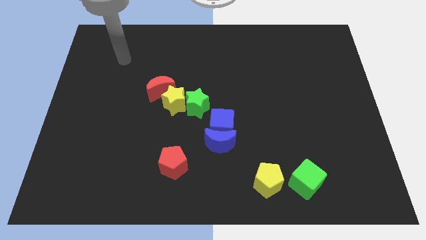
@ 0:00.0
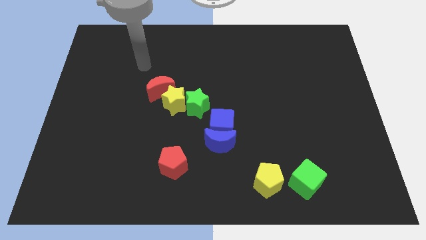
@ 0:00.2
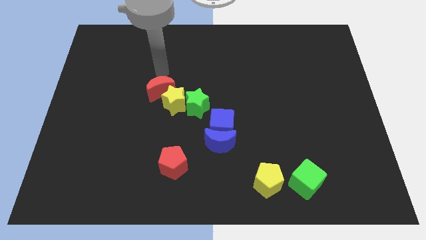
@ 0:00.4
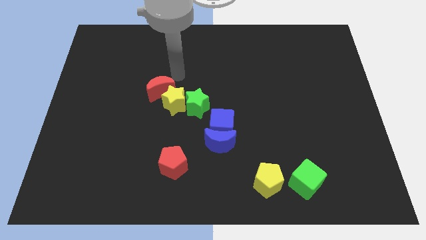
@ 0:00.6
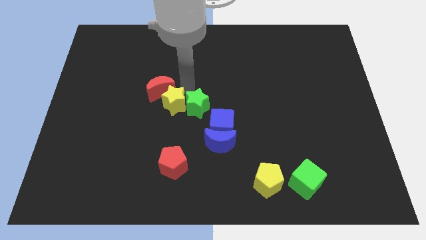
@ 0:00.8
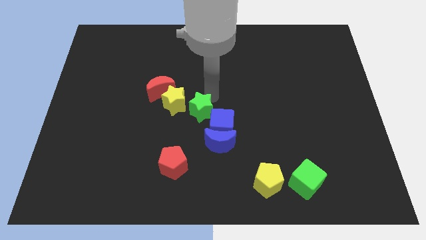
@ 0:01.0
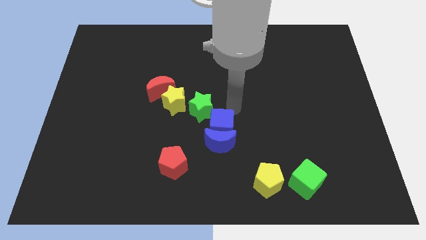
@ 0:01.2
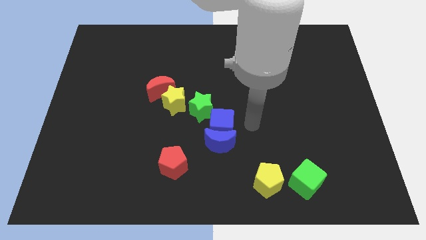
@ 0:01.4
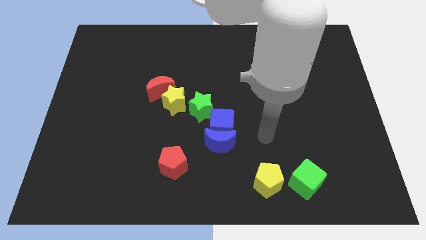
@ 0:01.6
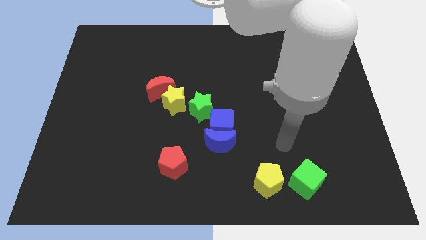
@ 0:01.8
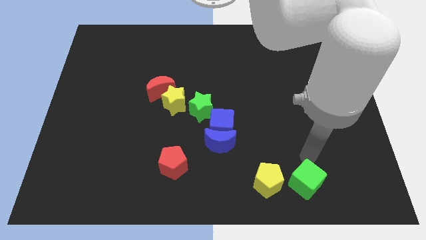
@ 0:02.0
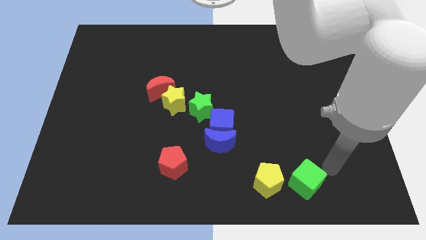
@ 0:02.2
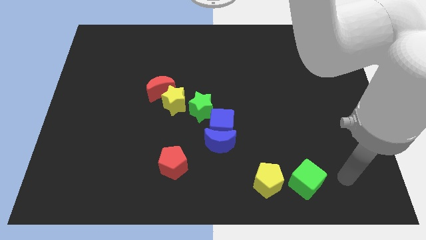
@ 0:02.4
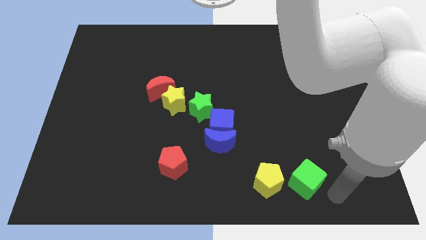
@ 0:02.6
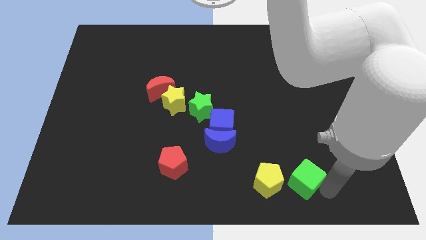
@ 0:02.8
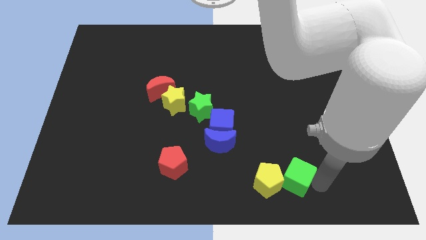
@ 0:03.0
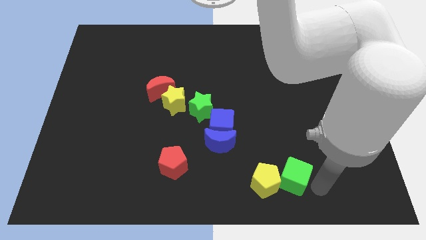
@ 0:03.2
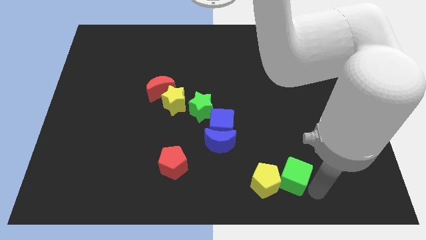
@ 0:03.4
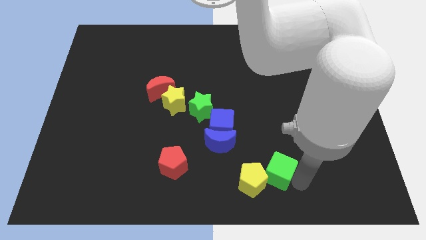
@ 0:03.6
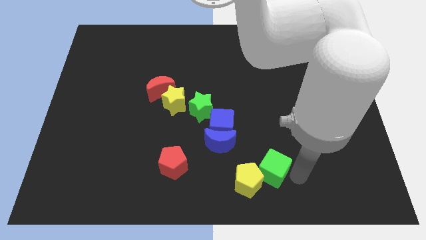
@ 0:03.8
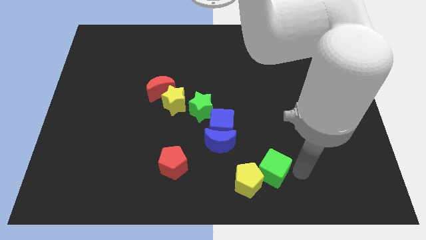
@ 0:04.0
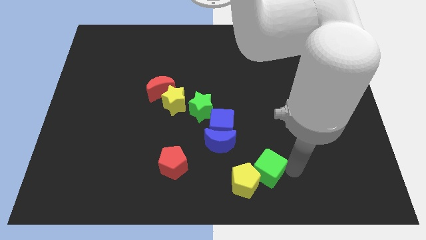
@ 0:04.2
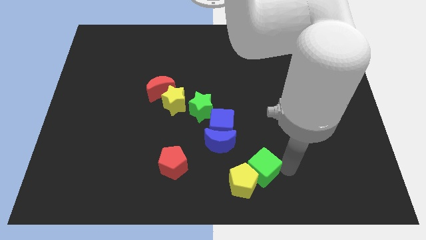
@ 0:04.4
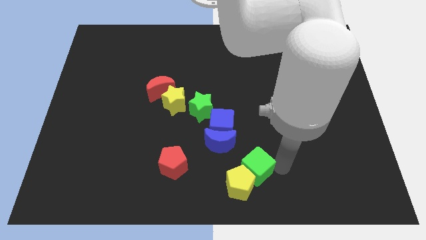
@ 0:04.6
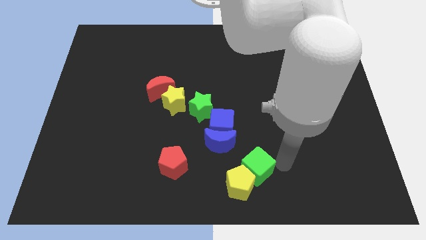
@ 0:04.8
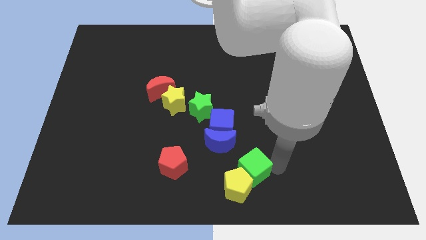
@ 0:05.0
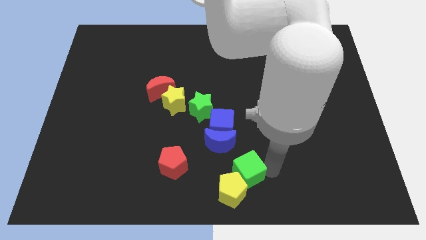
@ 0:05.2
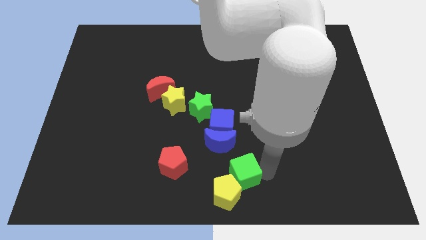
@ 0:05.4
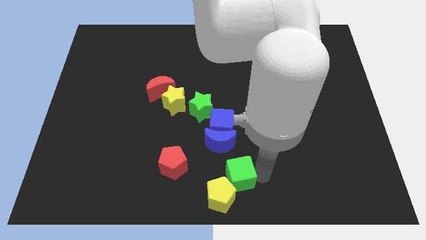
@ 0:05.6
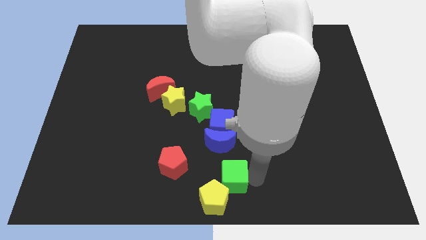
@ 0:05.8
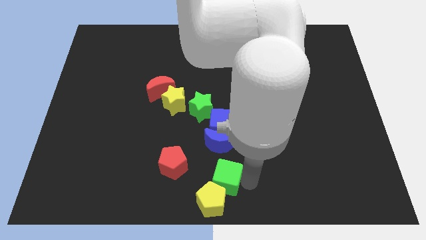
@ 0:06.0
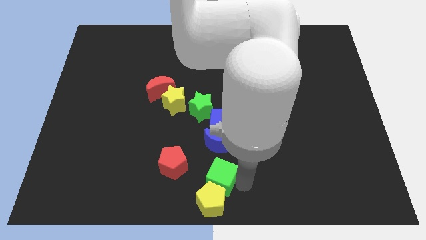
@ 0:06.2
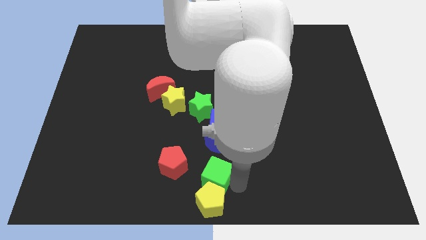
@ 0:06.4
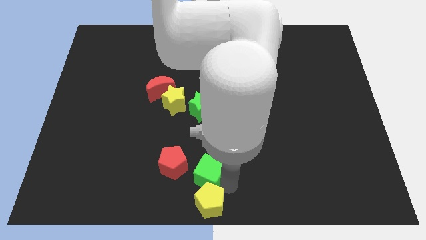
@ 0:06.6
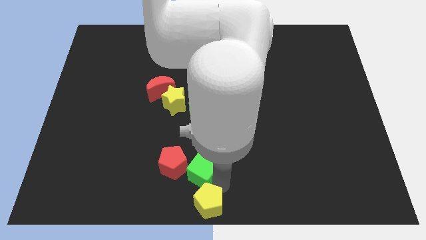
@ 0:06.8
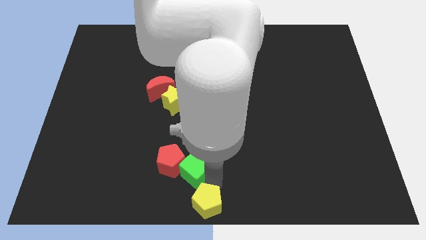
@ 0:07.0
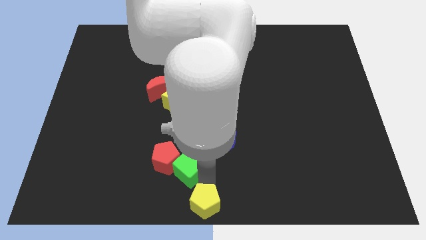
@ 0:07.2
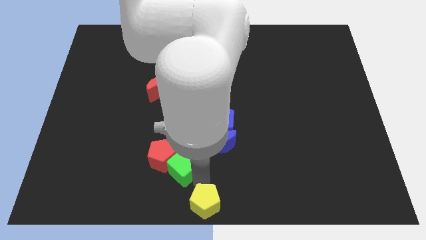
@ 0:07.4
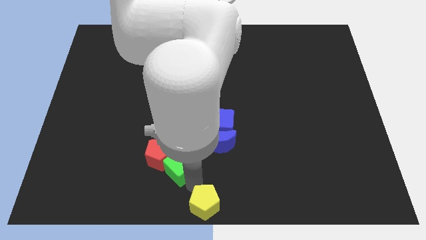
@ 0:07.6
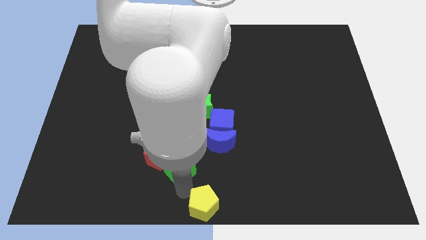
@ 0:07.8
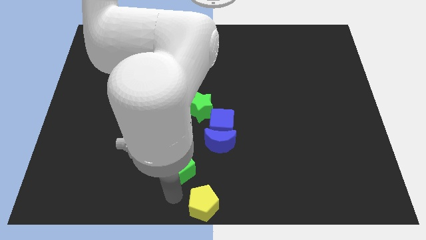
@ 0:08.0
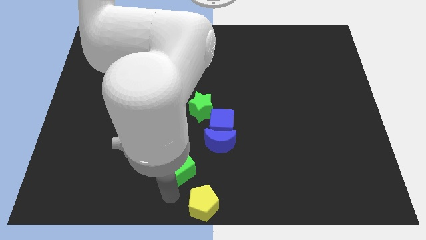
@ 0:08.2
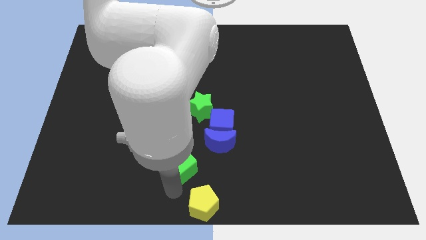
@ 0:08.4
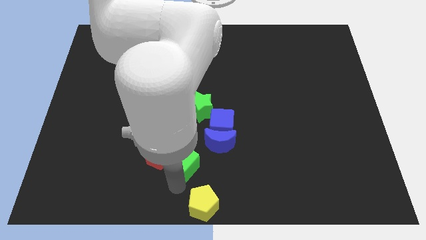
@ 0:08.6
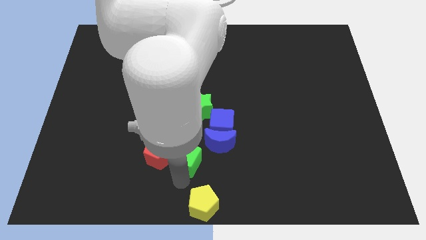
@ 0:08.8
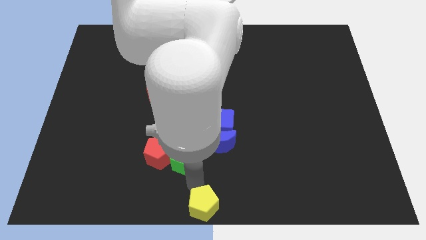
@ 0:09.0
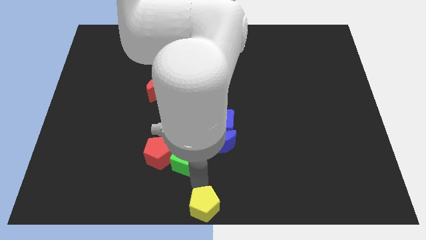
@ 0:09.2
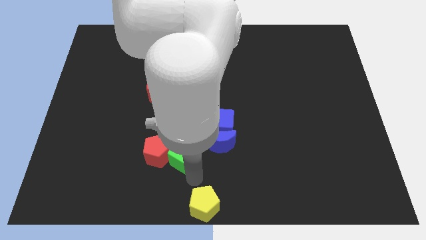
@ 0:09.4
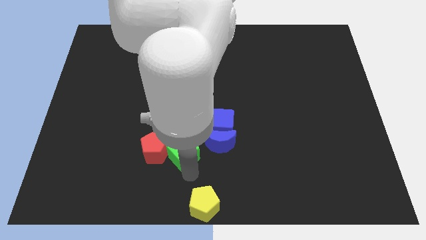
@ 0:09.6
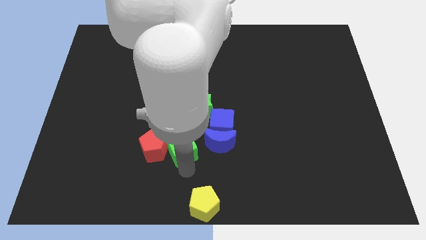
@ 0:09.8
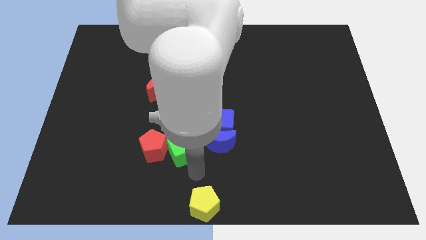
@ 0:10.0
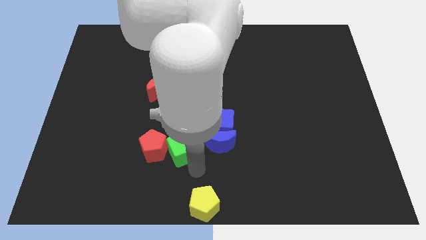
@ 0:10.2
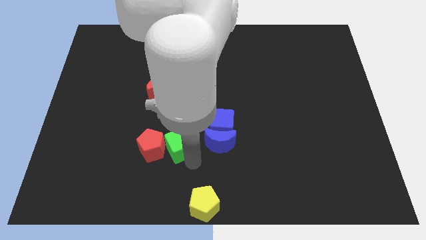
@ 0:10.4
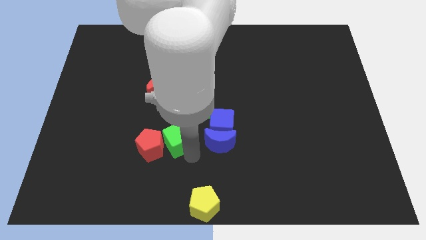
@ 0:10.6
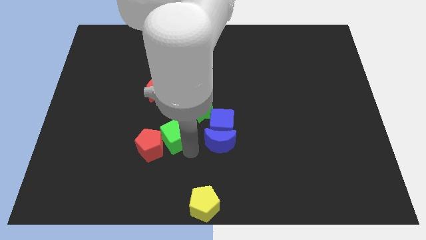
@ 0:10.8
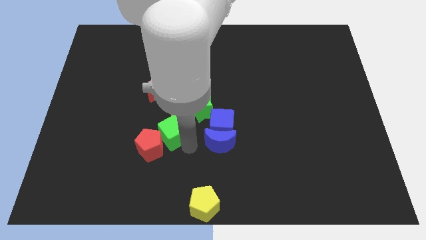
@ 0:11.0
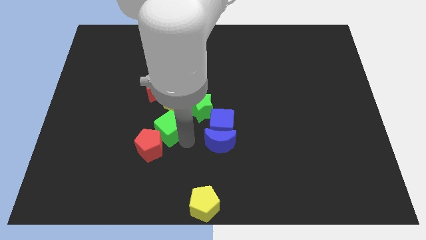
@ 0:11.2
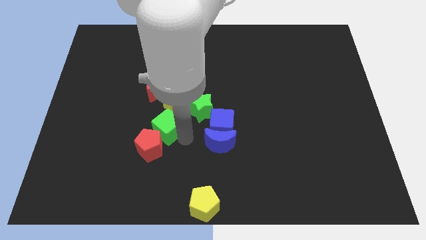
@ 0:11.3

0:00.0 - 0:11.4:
move the green cube diagonally down and to the left of the yellow star

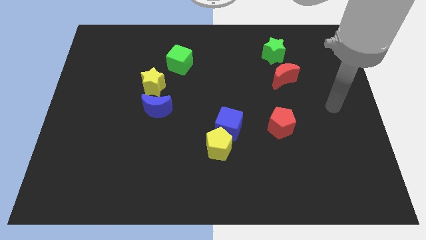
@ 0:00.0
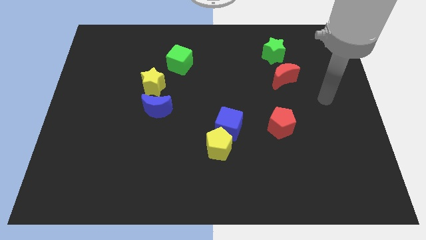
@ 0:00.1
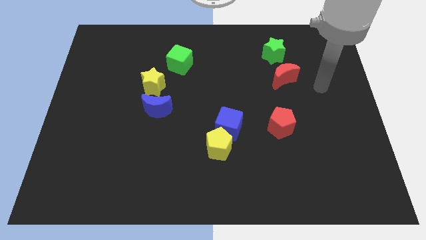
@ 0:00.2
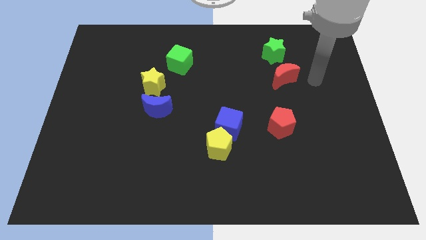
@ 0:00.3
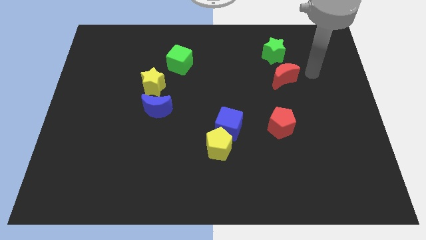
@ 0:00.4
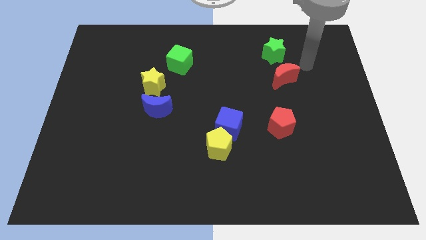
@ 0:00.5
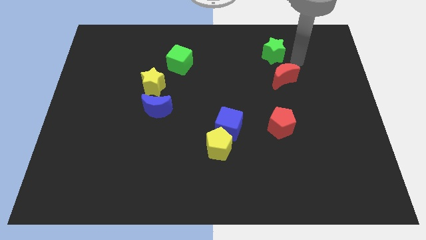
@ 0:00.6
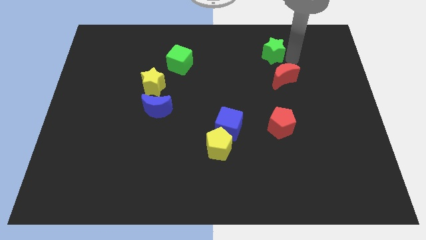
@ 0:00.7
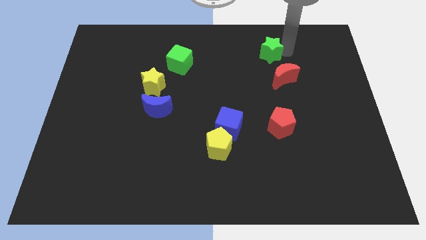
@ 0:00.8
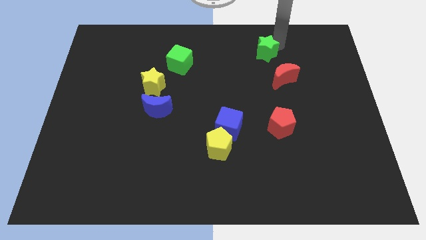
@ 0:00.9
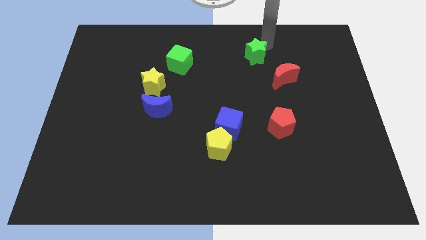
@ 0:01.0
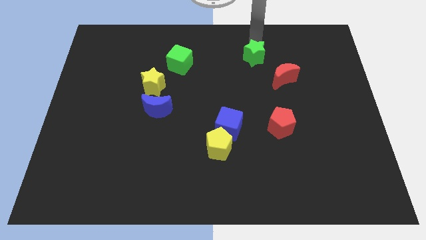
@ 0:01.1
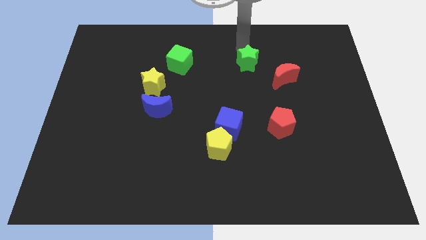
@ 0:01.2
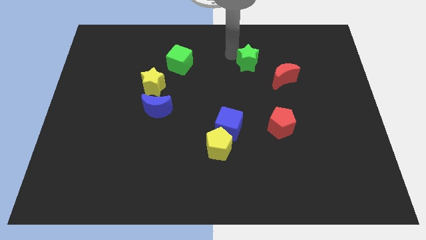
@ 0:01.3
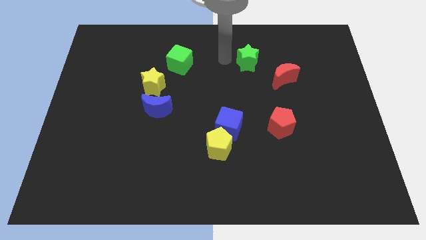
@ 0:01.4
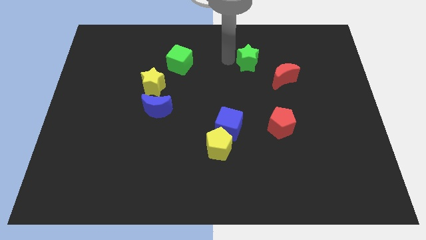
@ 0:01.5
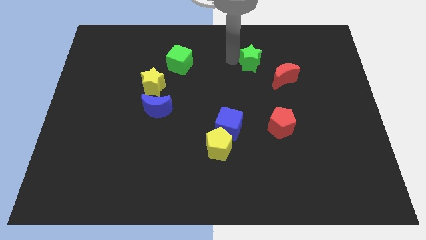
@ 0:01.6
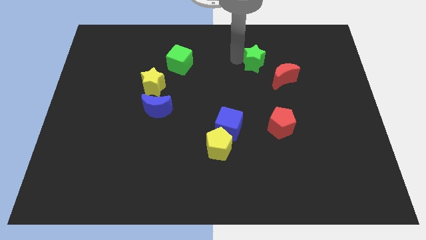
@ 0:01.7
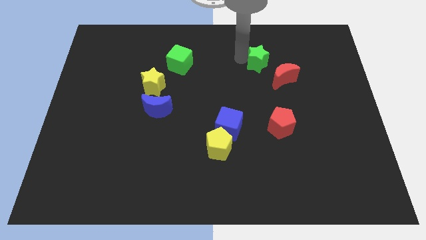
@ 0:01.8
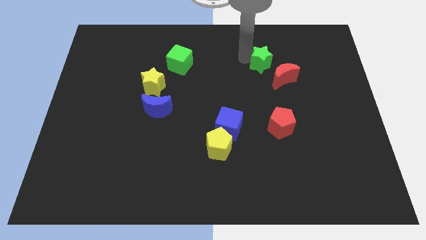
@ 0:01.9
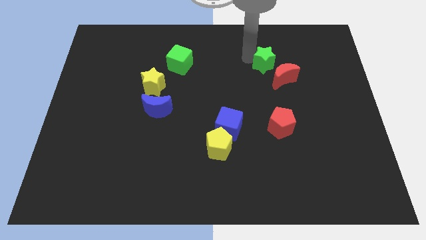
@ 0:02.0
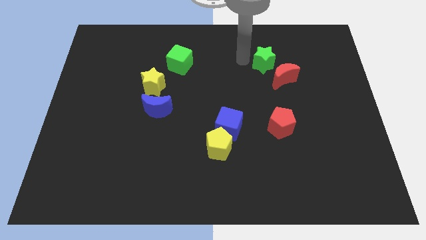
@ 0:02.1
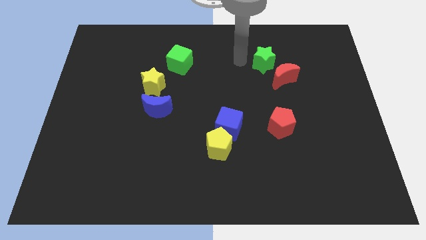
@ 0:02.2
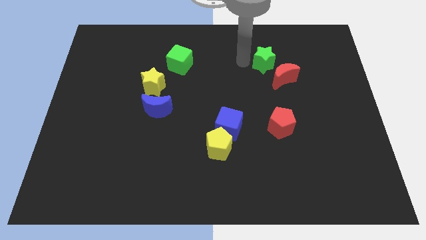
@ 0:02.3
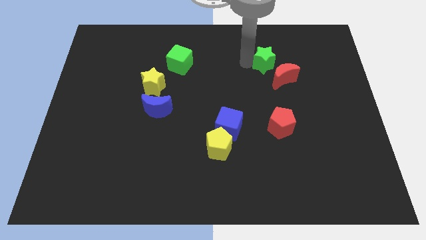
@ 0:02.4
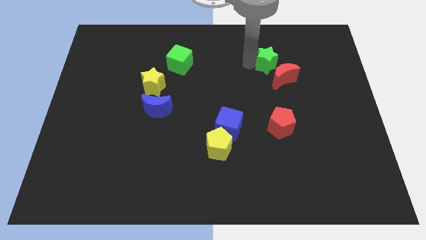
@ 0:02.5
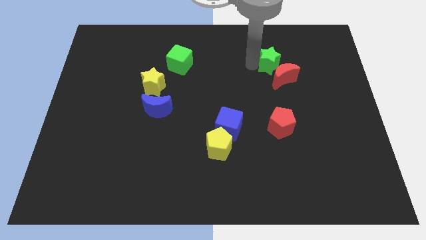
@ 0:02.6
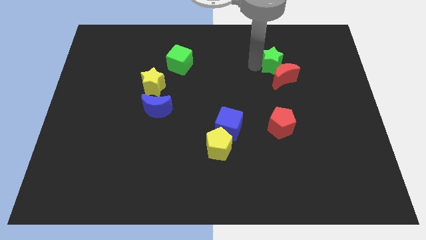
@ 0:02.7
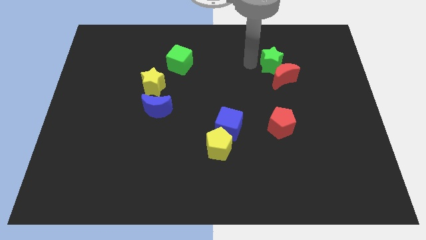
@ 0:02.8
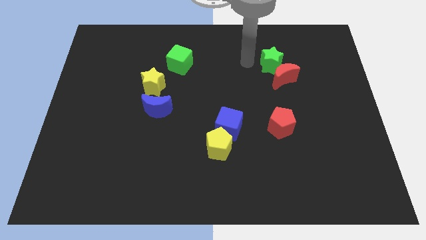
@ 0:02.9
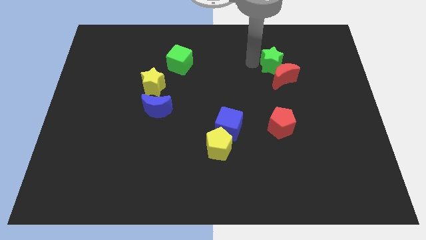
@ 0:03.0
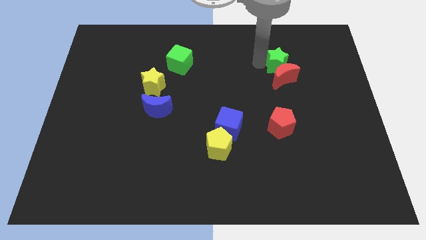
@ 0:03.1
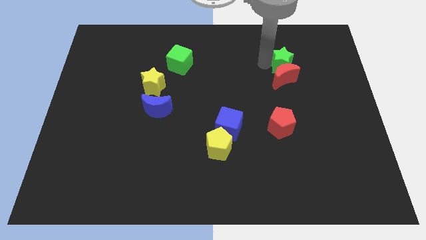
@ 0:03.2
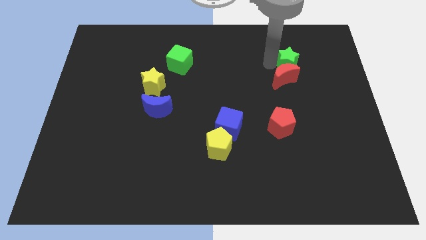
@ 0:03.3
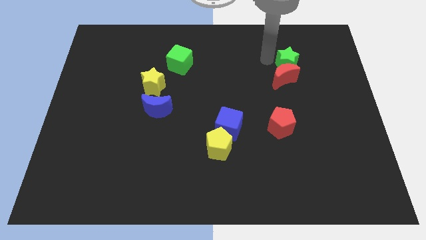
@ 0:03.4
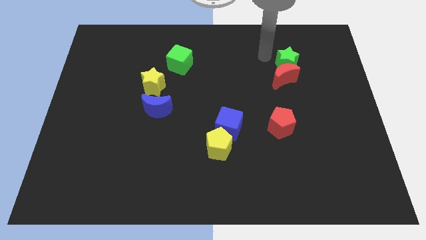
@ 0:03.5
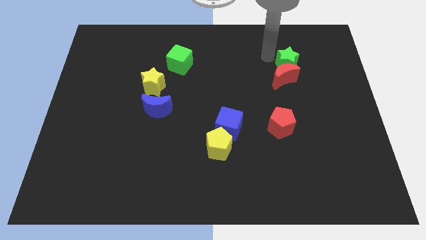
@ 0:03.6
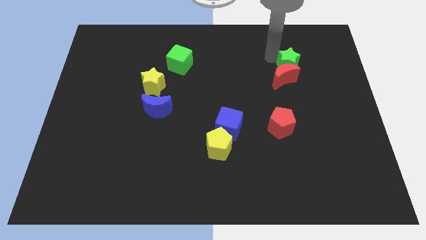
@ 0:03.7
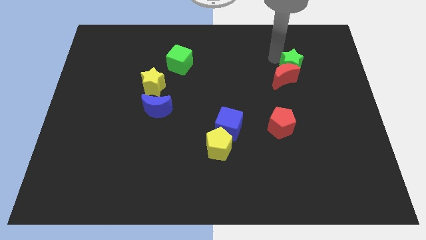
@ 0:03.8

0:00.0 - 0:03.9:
move the green star just right of the red moon
